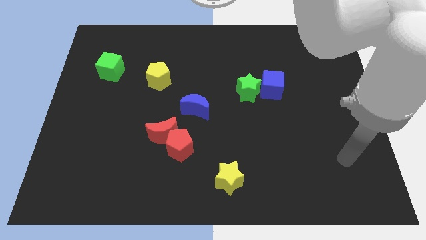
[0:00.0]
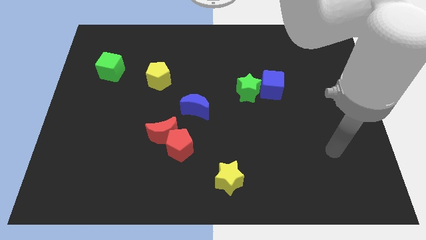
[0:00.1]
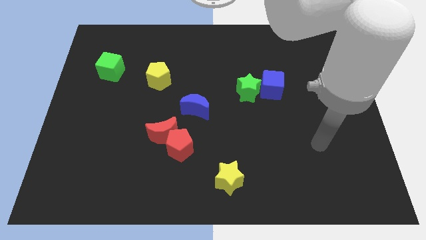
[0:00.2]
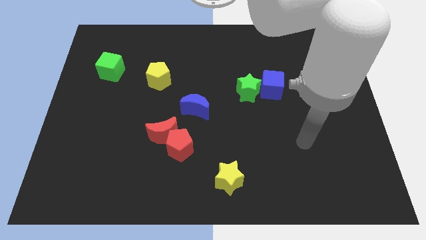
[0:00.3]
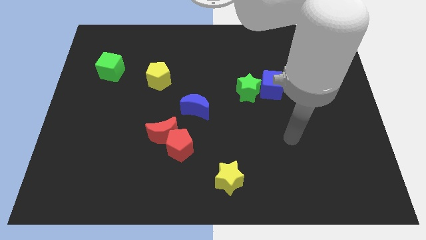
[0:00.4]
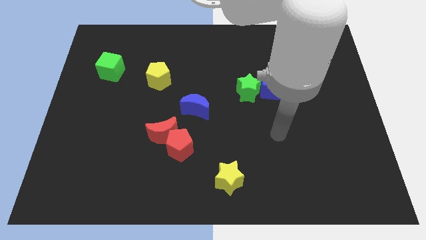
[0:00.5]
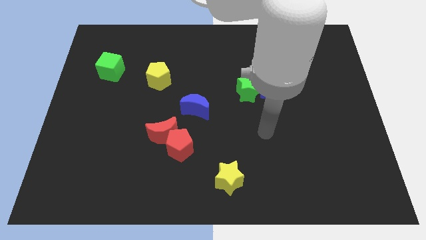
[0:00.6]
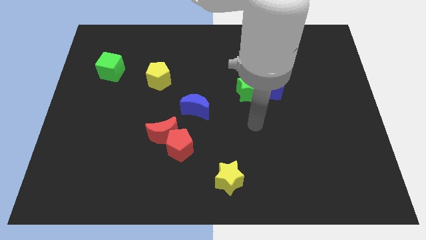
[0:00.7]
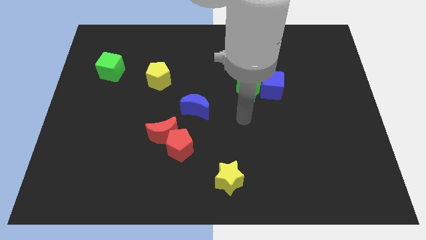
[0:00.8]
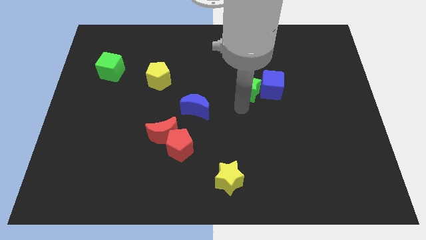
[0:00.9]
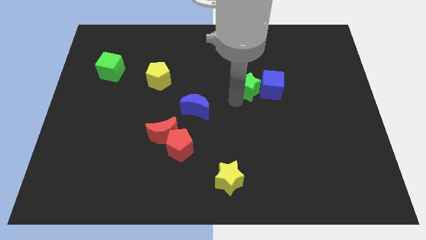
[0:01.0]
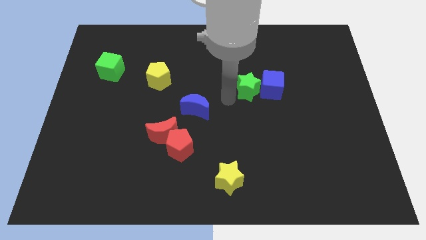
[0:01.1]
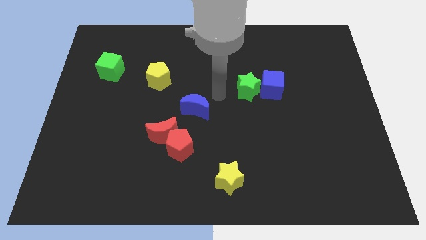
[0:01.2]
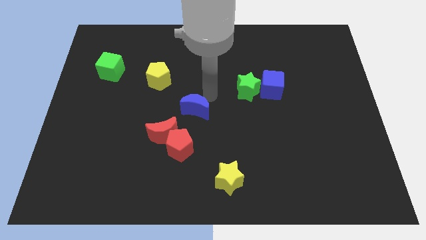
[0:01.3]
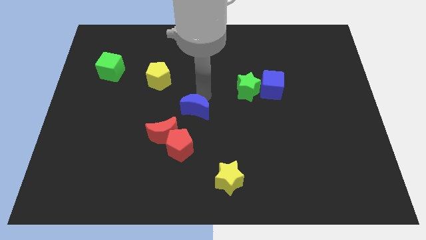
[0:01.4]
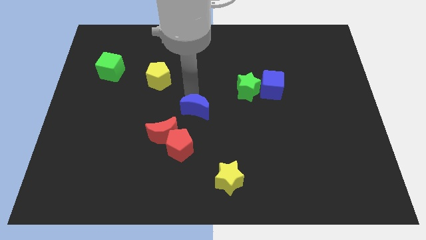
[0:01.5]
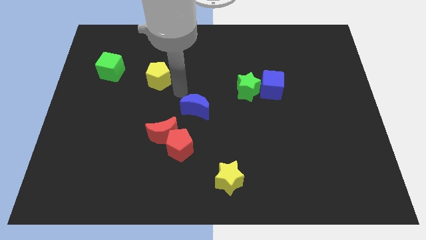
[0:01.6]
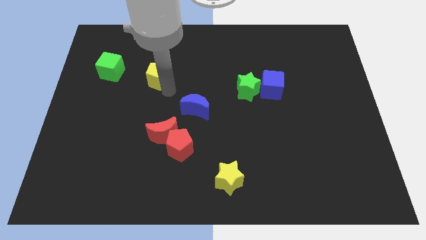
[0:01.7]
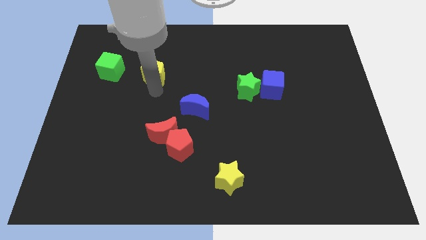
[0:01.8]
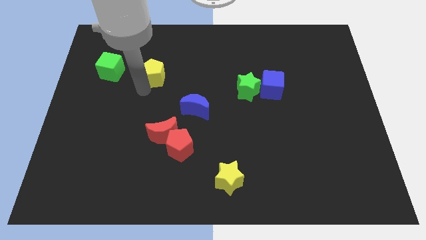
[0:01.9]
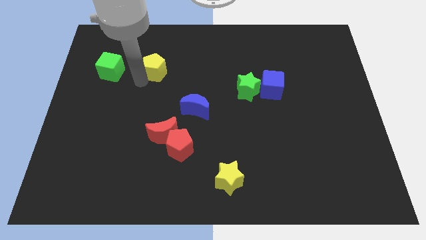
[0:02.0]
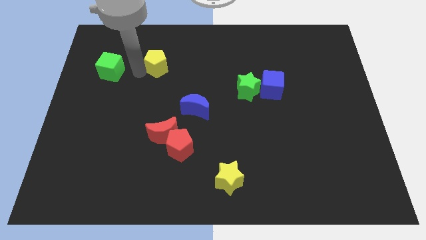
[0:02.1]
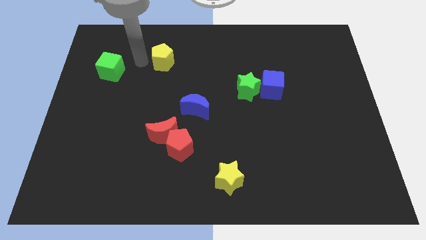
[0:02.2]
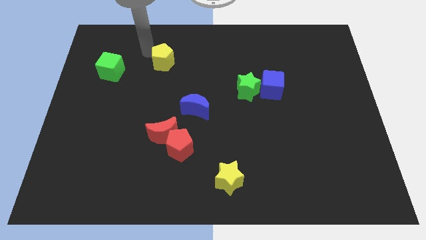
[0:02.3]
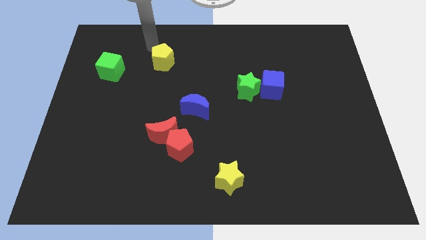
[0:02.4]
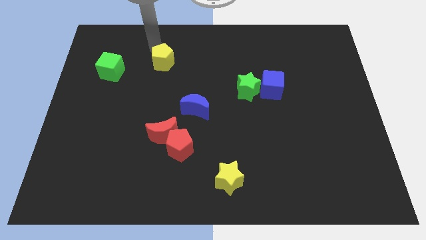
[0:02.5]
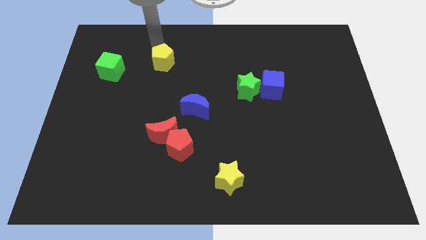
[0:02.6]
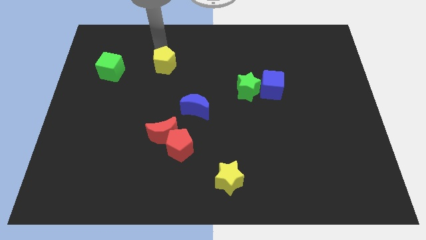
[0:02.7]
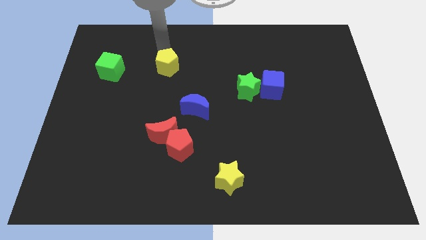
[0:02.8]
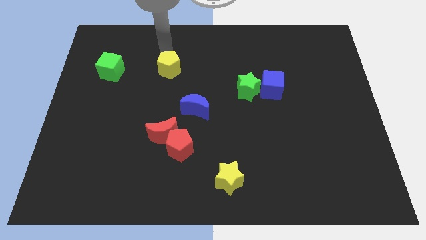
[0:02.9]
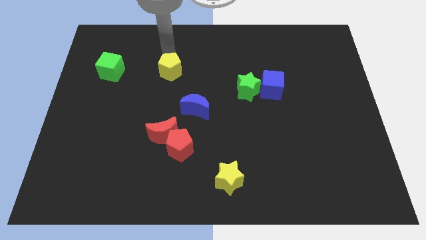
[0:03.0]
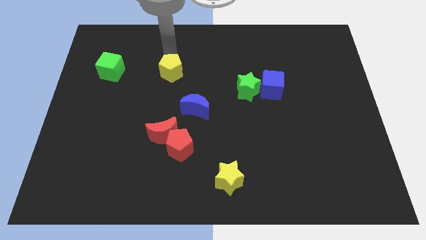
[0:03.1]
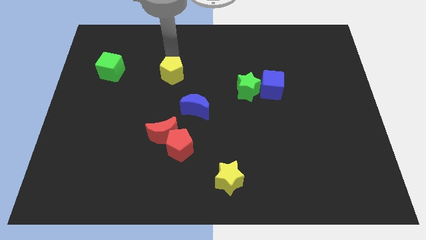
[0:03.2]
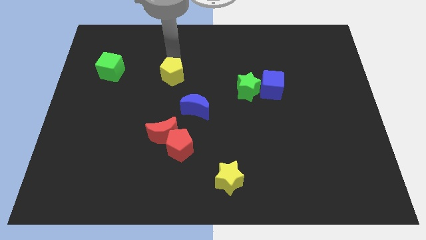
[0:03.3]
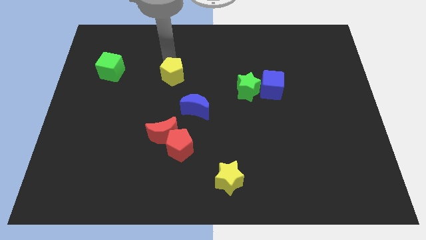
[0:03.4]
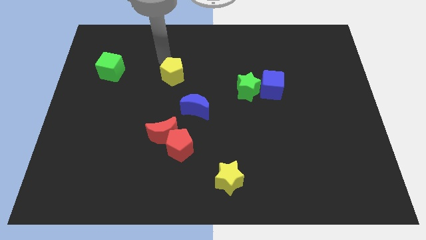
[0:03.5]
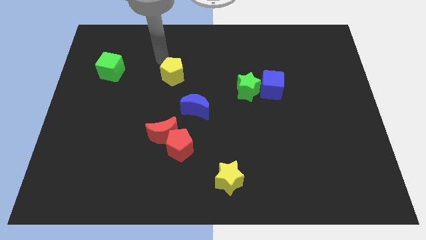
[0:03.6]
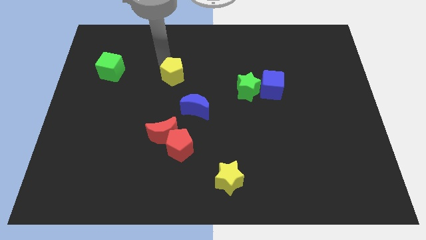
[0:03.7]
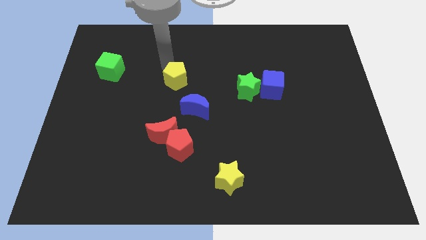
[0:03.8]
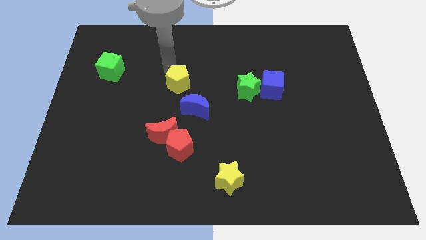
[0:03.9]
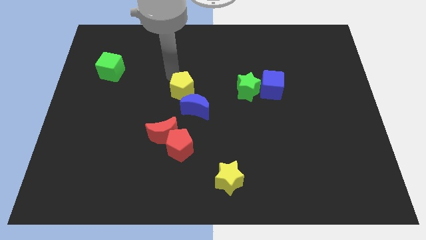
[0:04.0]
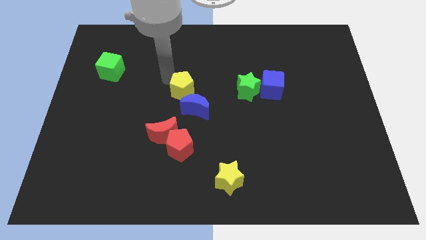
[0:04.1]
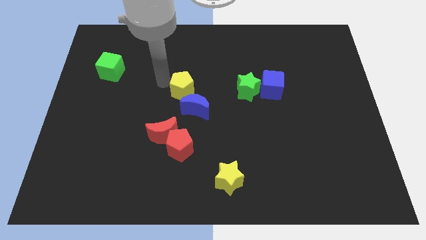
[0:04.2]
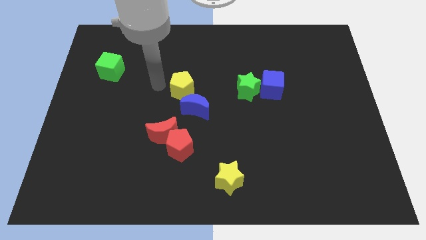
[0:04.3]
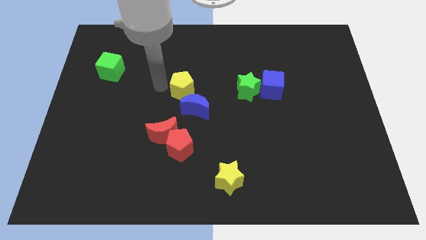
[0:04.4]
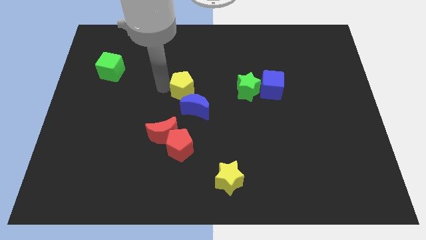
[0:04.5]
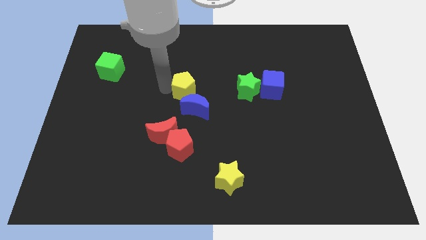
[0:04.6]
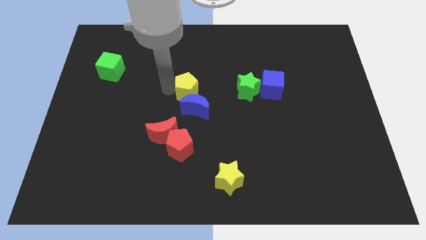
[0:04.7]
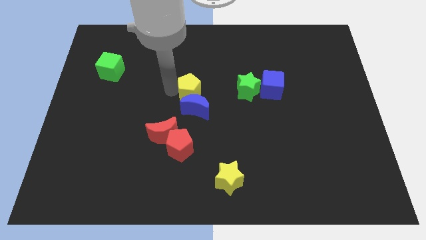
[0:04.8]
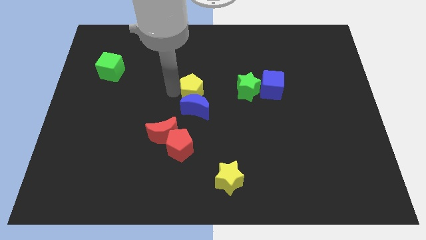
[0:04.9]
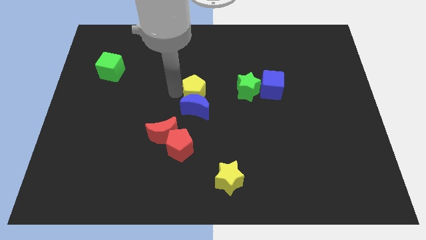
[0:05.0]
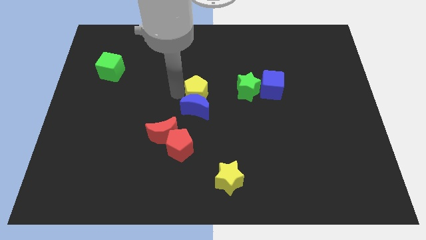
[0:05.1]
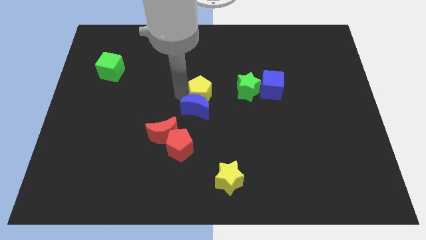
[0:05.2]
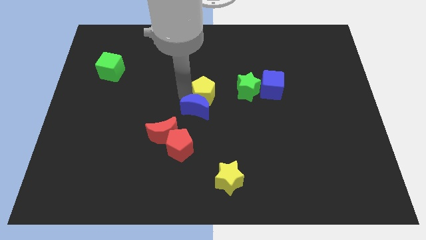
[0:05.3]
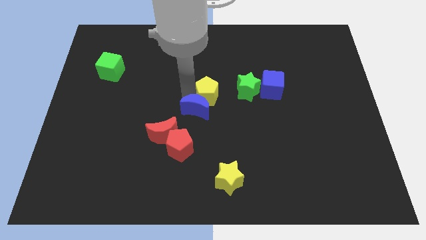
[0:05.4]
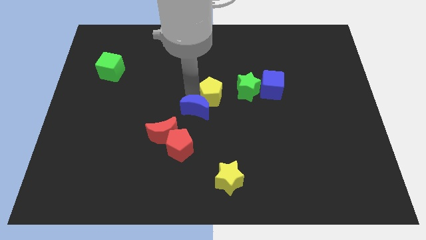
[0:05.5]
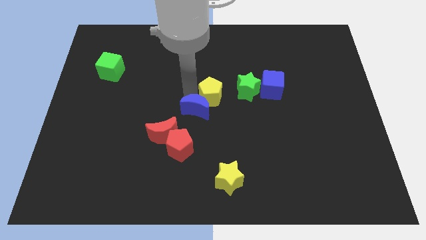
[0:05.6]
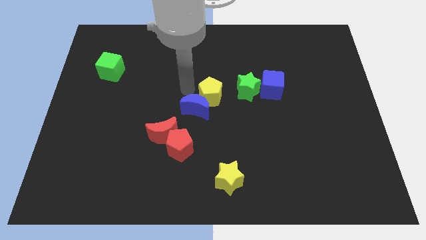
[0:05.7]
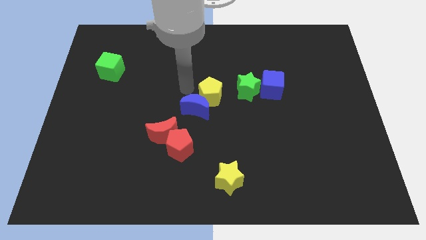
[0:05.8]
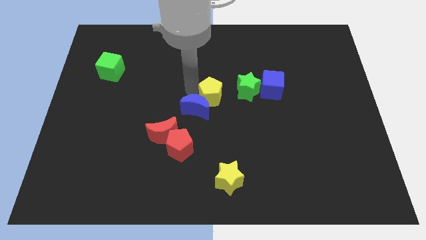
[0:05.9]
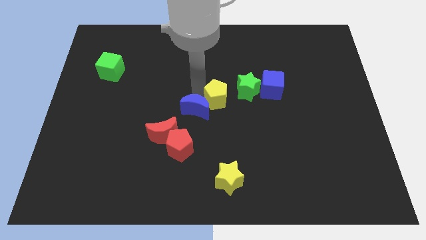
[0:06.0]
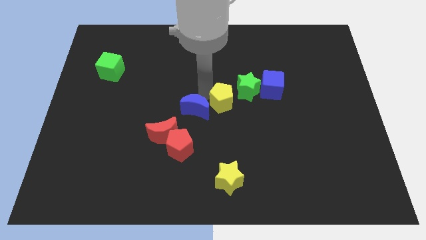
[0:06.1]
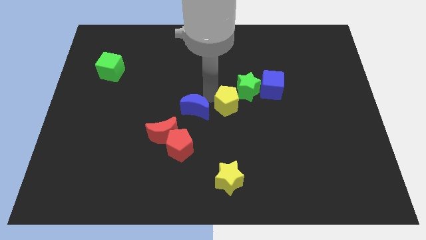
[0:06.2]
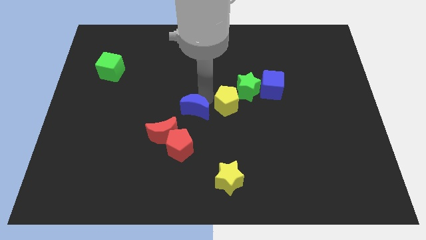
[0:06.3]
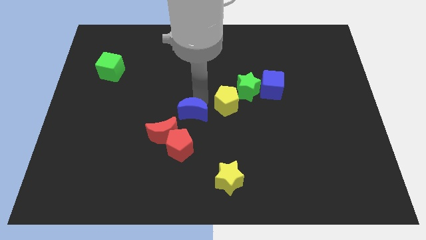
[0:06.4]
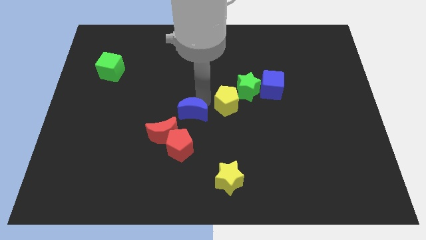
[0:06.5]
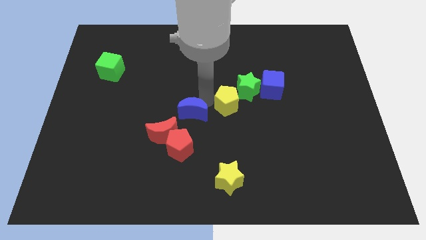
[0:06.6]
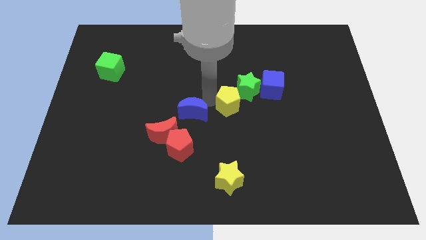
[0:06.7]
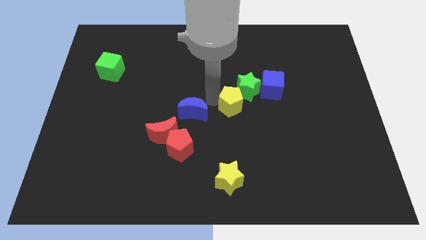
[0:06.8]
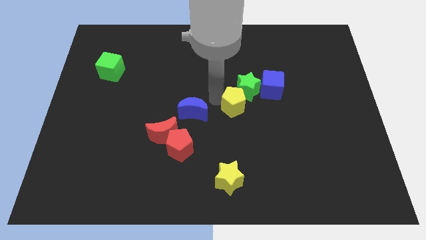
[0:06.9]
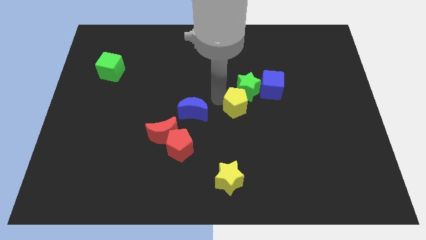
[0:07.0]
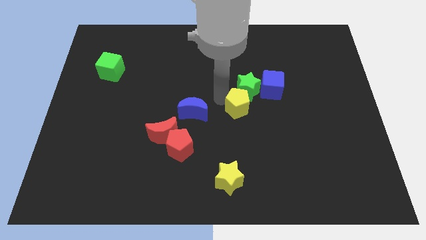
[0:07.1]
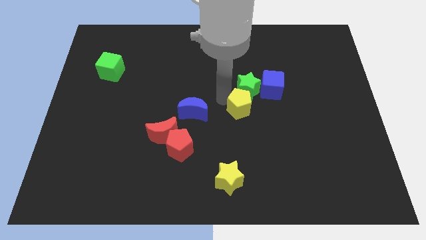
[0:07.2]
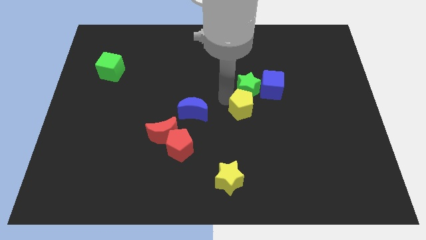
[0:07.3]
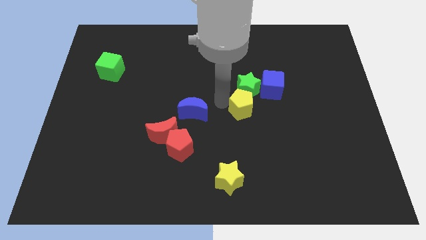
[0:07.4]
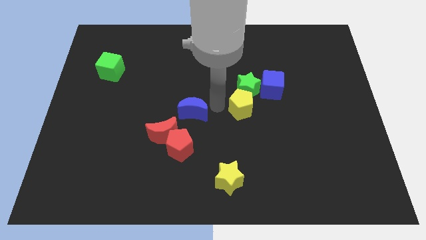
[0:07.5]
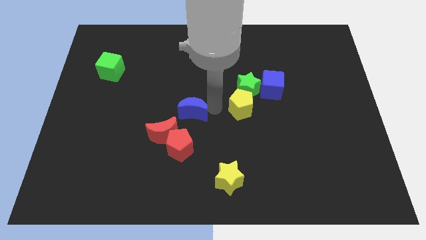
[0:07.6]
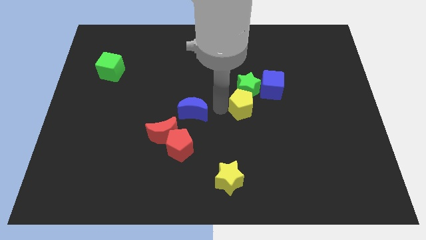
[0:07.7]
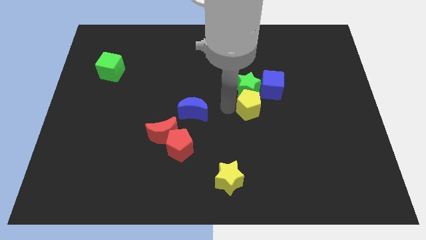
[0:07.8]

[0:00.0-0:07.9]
slide the yellow pentagon to the bottom right side of the green star
